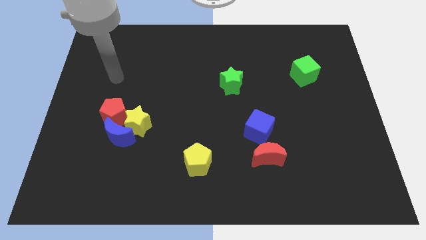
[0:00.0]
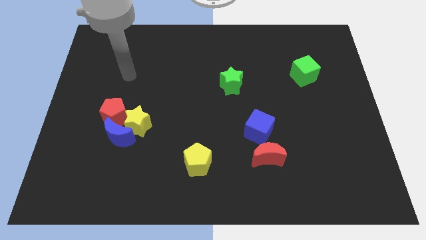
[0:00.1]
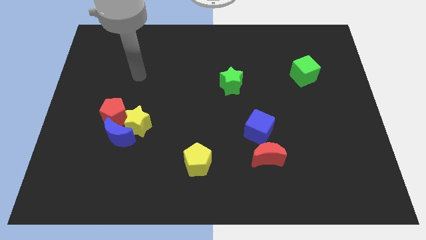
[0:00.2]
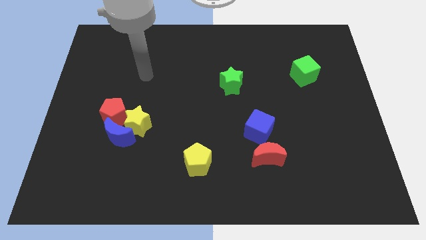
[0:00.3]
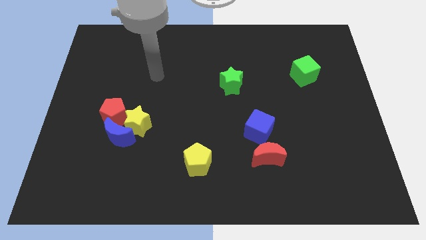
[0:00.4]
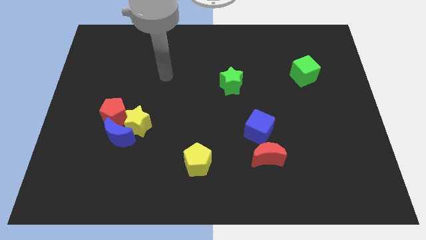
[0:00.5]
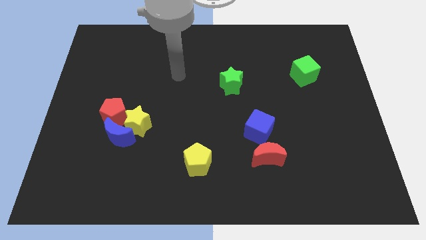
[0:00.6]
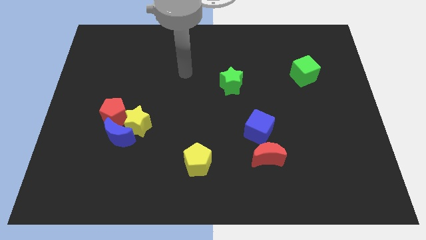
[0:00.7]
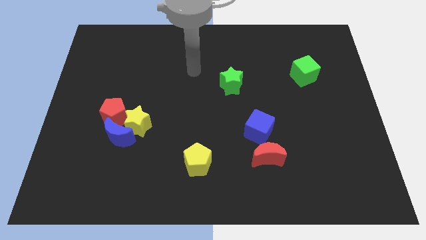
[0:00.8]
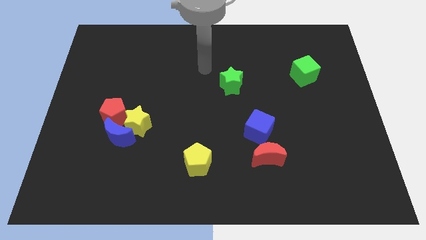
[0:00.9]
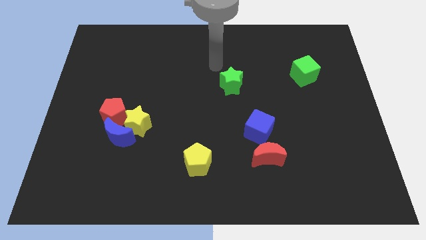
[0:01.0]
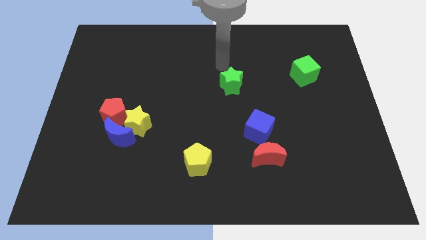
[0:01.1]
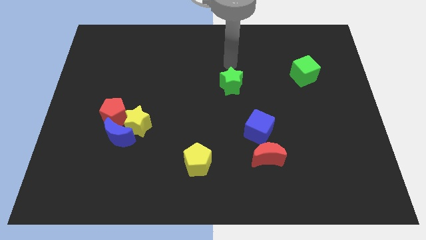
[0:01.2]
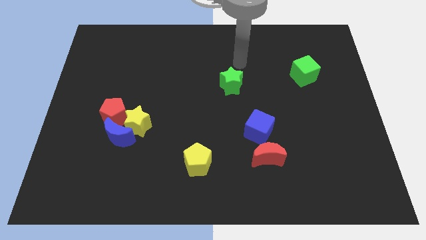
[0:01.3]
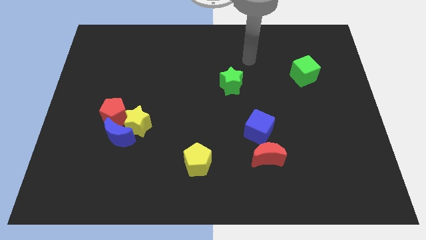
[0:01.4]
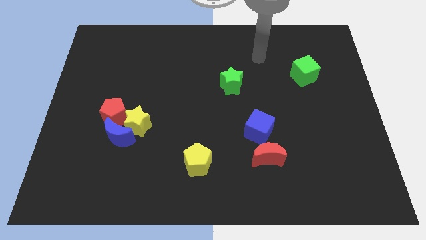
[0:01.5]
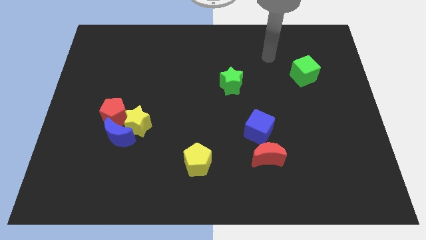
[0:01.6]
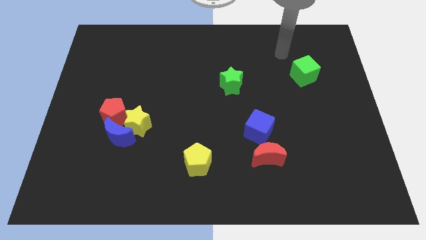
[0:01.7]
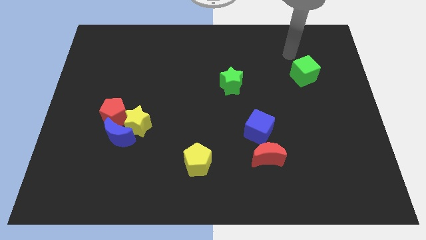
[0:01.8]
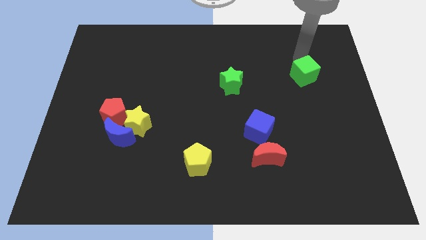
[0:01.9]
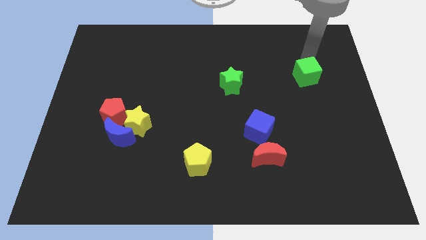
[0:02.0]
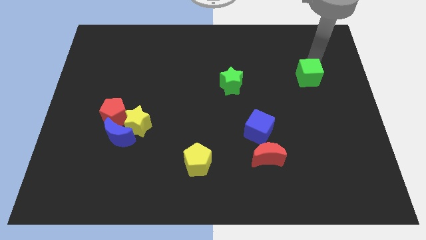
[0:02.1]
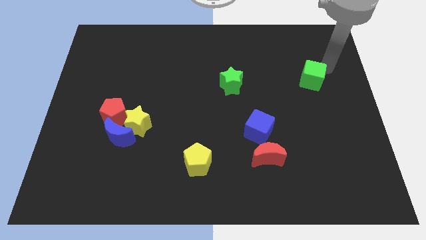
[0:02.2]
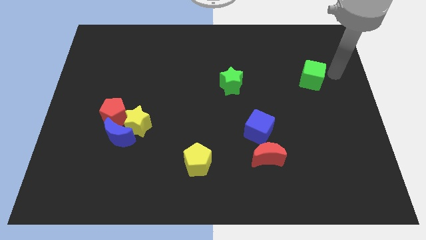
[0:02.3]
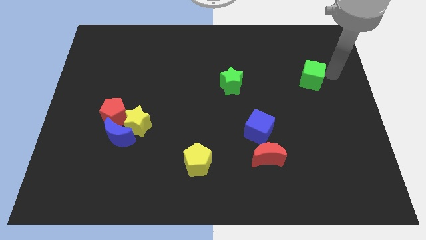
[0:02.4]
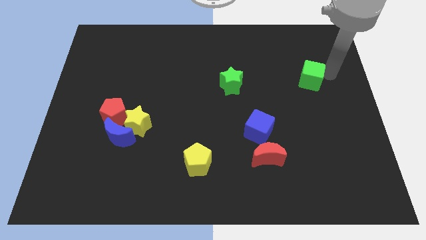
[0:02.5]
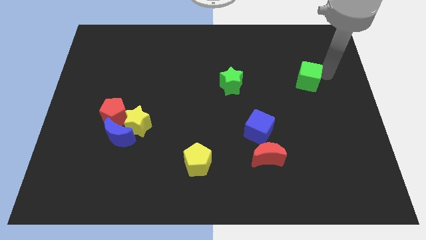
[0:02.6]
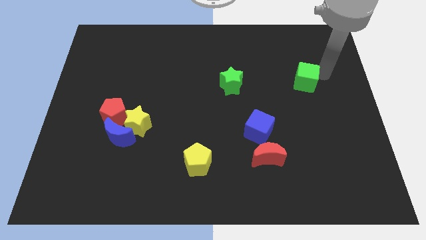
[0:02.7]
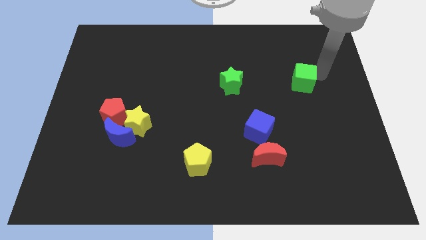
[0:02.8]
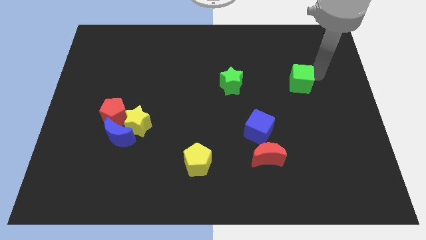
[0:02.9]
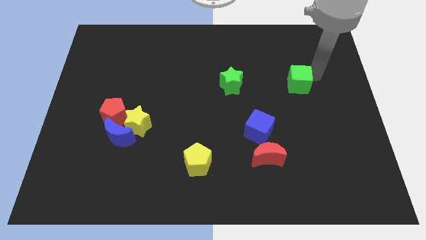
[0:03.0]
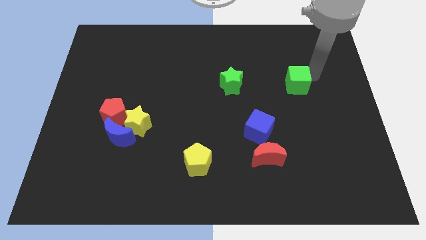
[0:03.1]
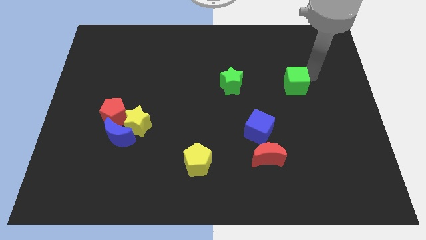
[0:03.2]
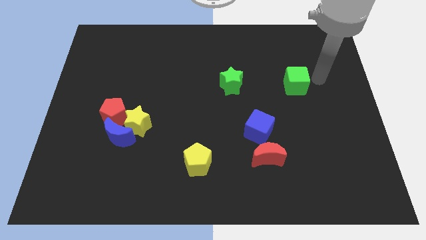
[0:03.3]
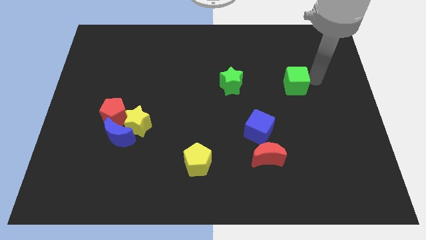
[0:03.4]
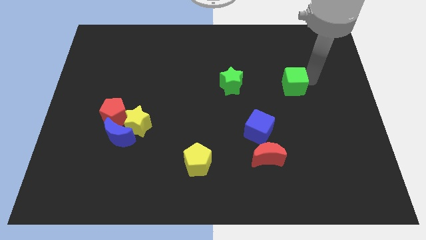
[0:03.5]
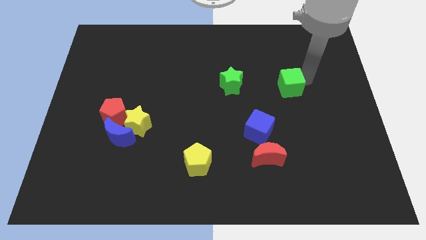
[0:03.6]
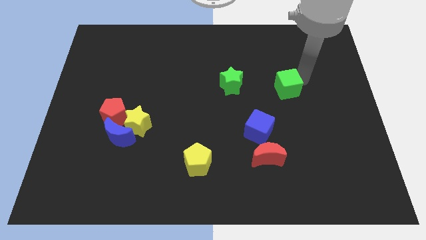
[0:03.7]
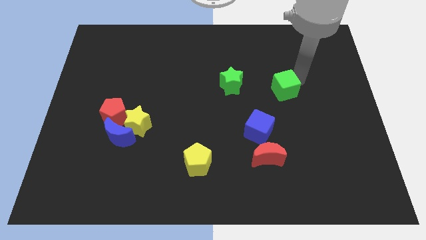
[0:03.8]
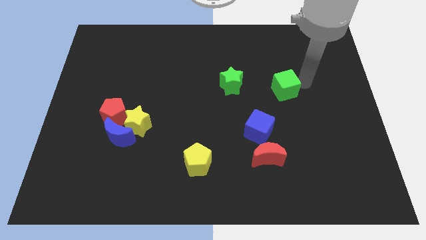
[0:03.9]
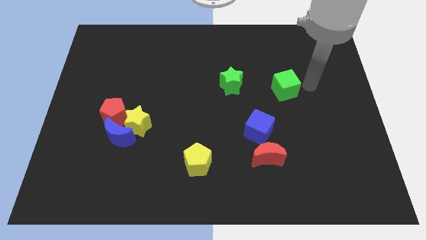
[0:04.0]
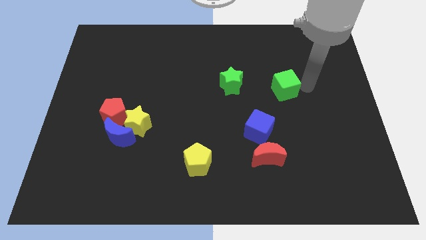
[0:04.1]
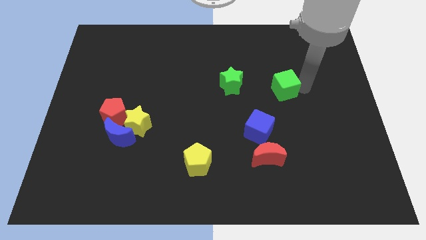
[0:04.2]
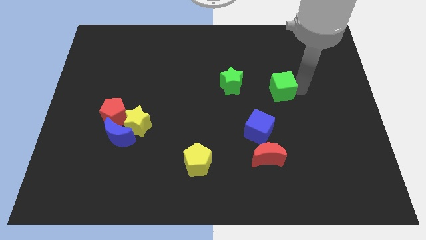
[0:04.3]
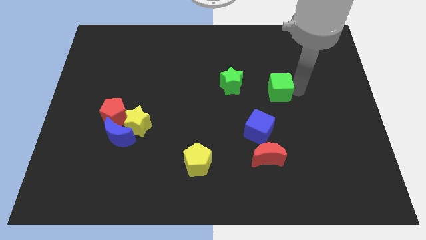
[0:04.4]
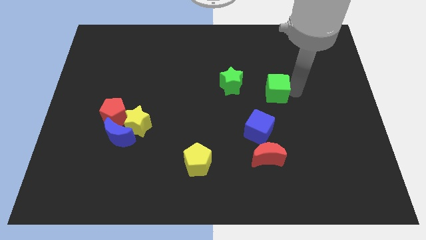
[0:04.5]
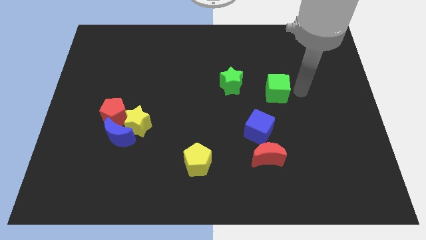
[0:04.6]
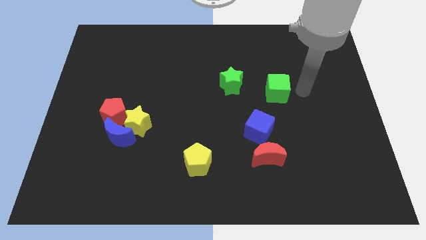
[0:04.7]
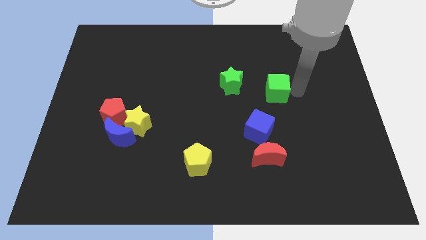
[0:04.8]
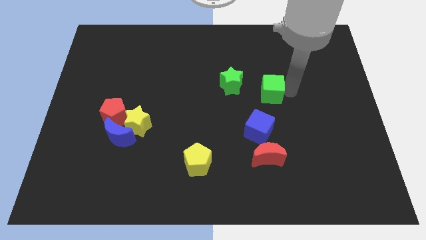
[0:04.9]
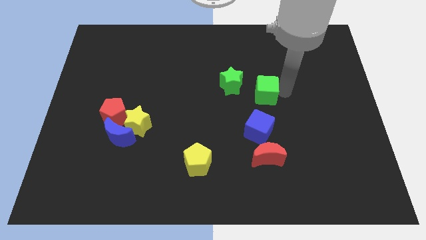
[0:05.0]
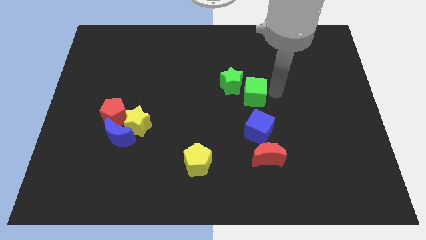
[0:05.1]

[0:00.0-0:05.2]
slide the green cube to the center of the board

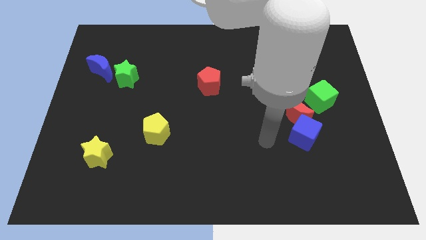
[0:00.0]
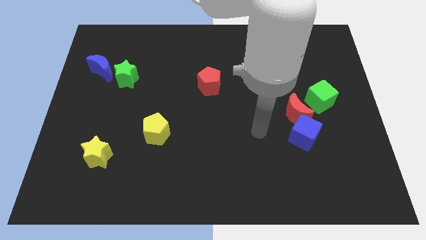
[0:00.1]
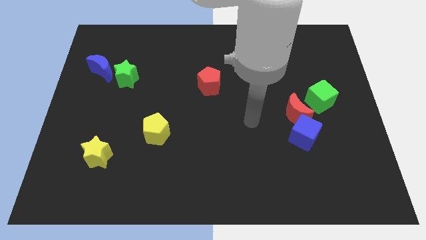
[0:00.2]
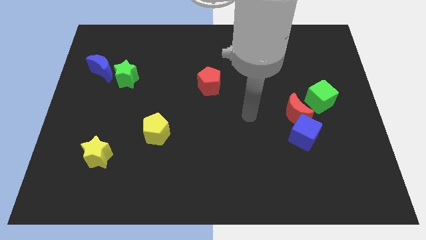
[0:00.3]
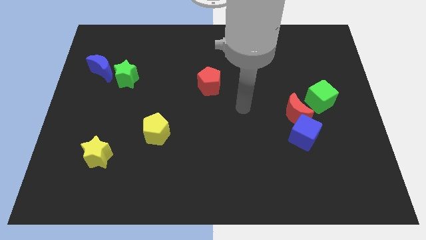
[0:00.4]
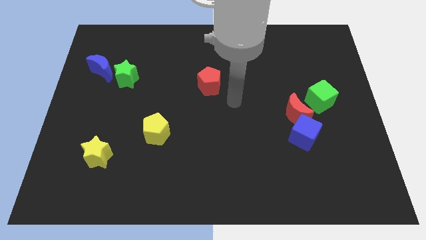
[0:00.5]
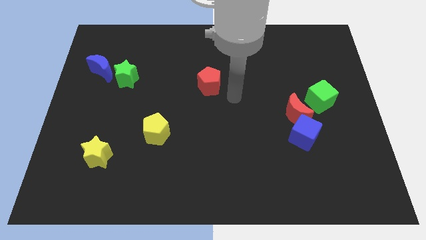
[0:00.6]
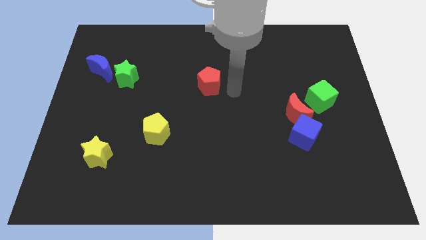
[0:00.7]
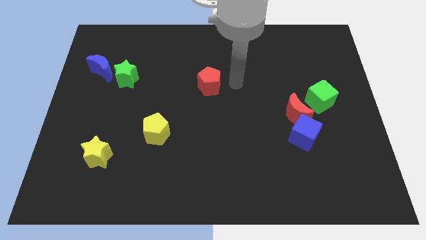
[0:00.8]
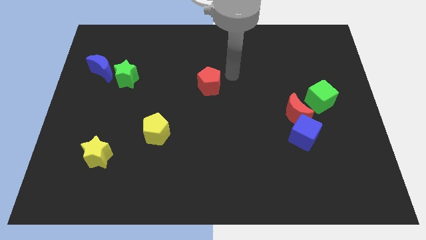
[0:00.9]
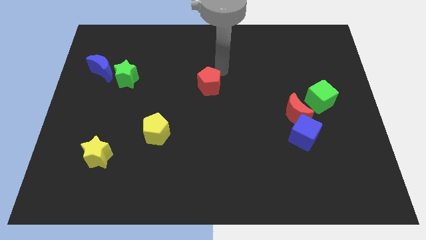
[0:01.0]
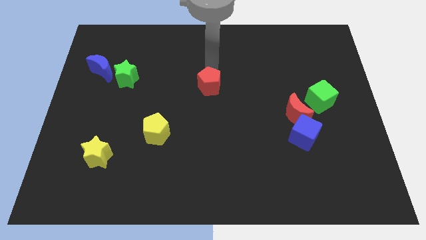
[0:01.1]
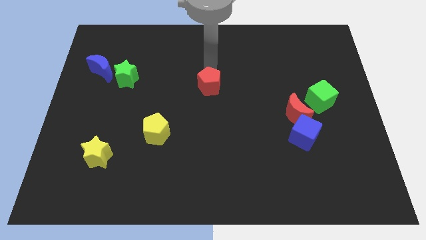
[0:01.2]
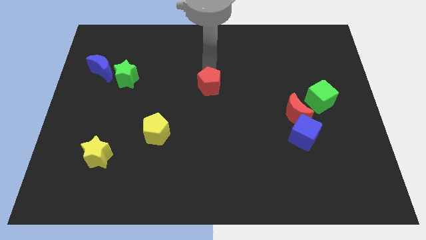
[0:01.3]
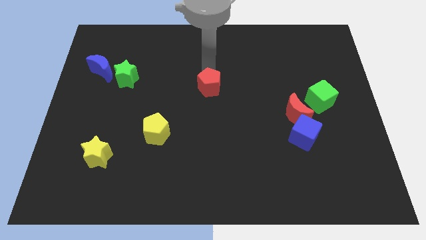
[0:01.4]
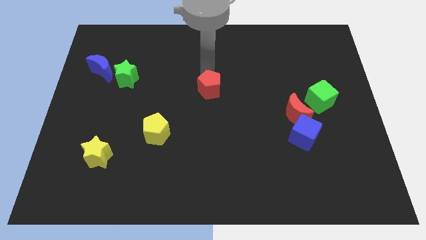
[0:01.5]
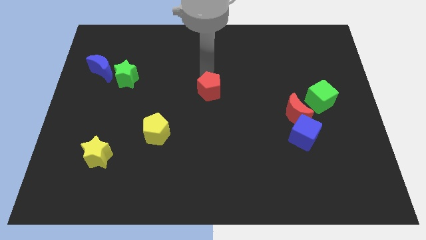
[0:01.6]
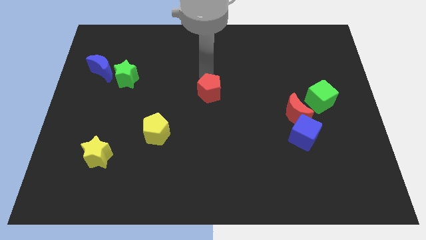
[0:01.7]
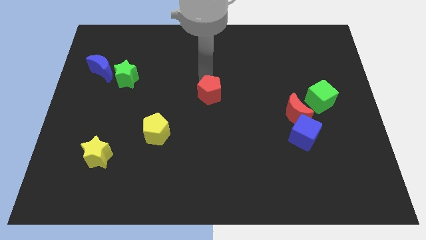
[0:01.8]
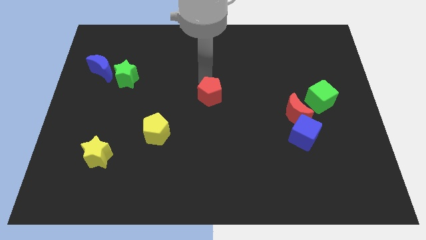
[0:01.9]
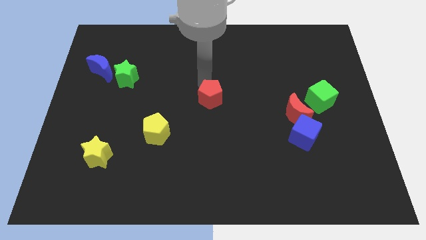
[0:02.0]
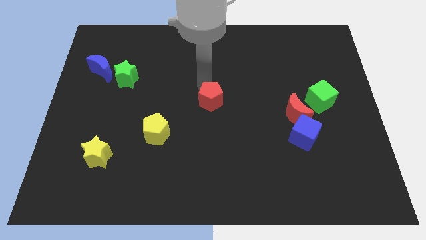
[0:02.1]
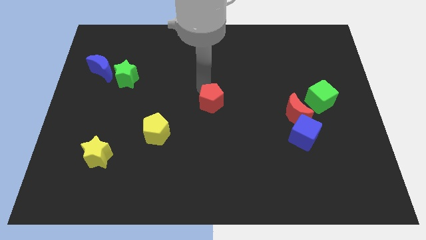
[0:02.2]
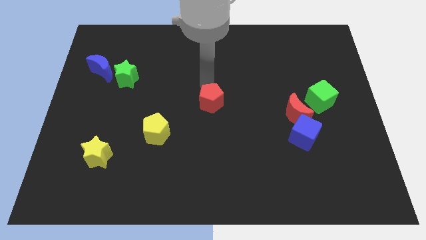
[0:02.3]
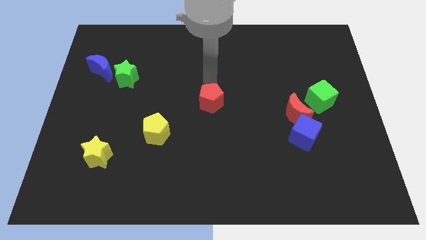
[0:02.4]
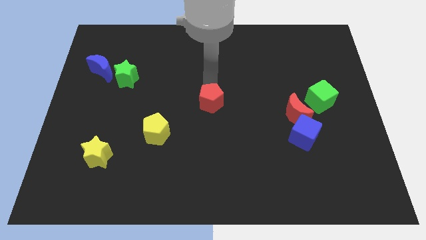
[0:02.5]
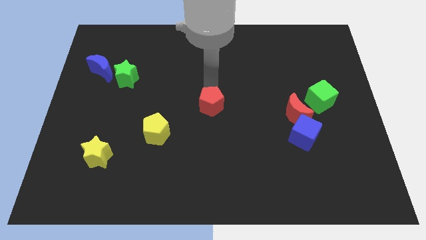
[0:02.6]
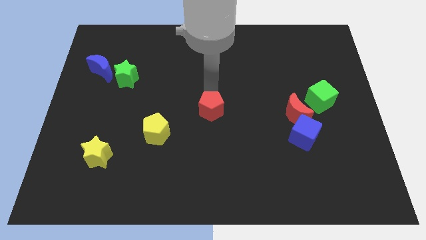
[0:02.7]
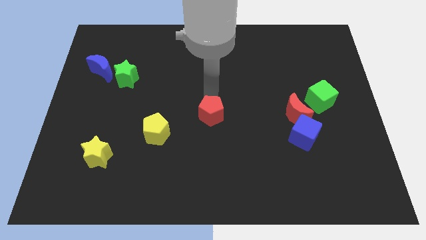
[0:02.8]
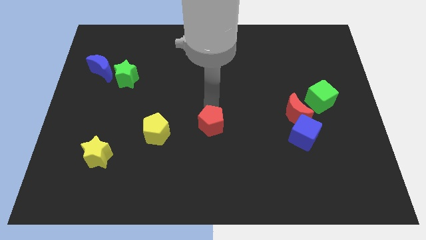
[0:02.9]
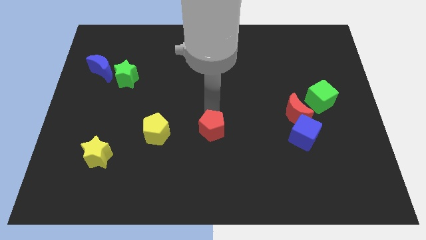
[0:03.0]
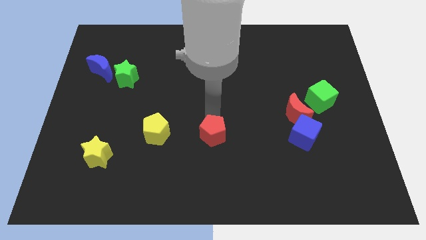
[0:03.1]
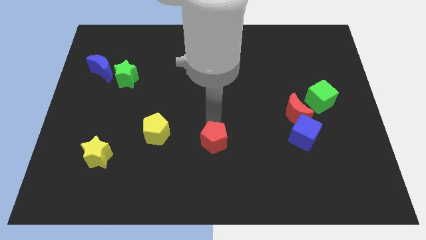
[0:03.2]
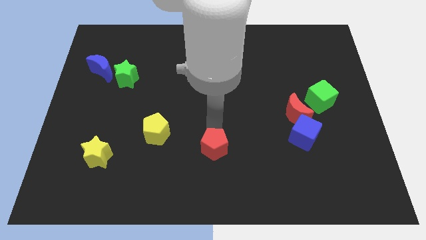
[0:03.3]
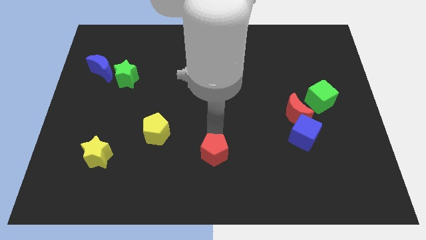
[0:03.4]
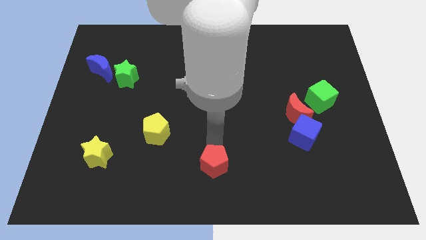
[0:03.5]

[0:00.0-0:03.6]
slide the red pentagon to the bottom
